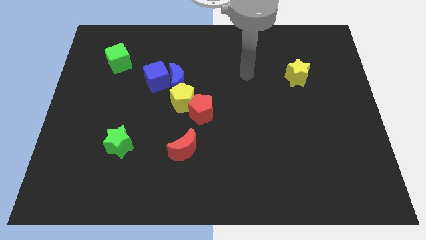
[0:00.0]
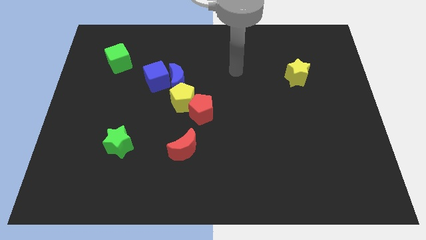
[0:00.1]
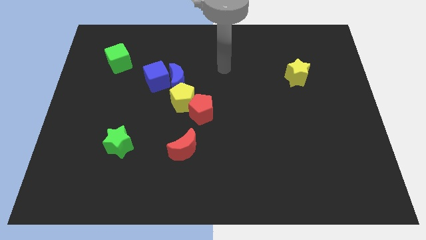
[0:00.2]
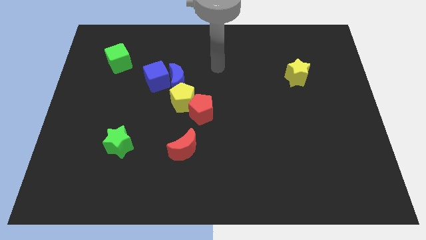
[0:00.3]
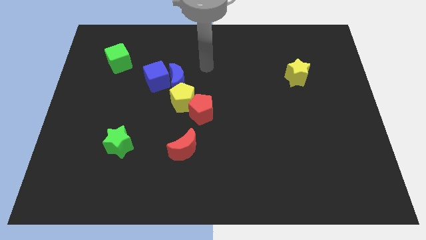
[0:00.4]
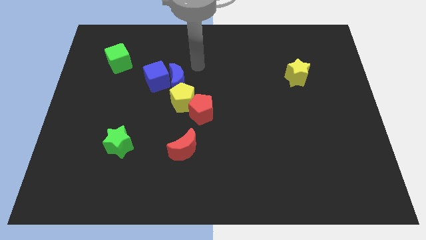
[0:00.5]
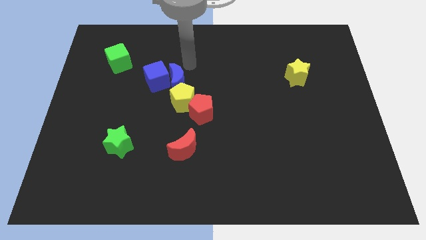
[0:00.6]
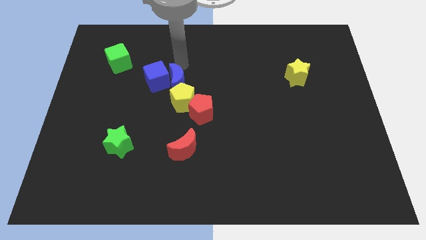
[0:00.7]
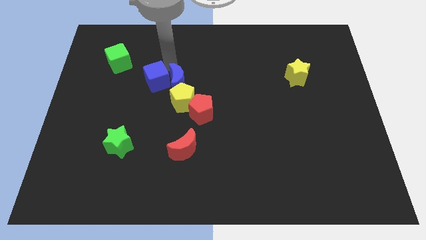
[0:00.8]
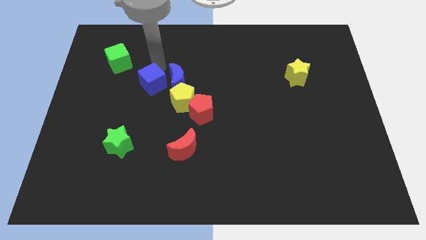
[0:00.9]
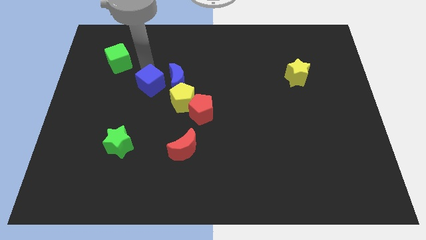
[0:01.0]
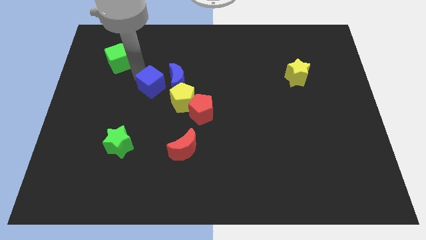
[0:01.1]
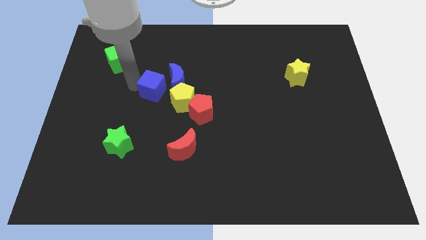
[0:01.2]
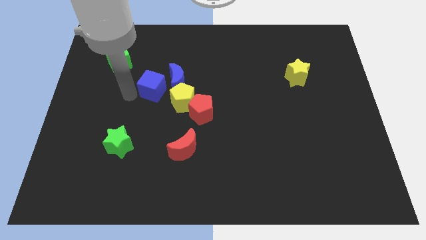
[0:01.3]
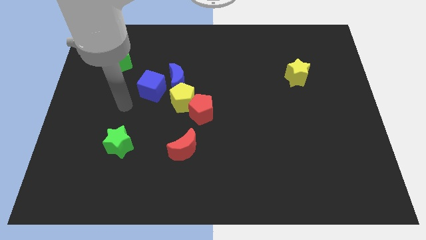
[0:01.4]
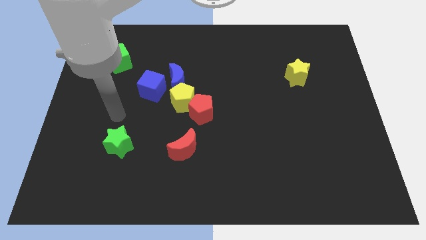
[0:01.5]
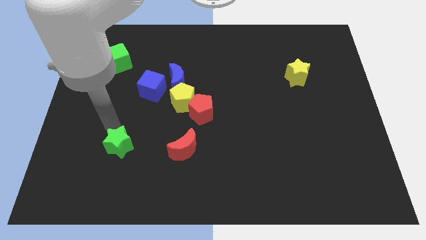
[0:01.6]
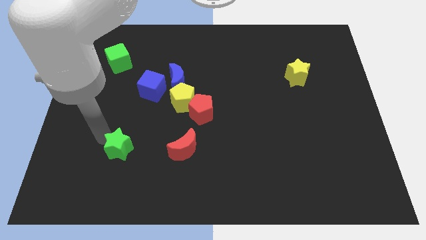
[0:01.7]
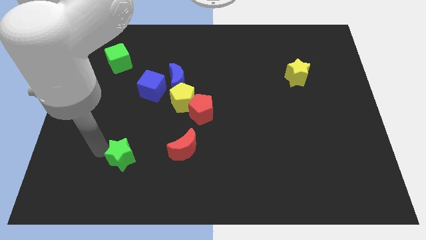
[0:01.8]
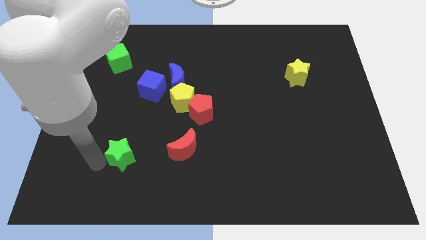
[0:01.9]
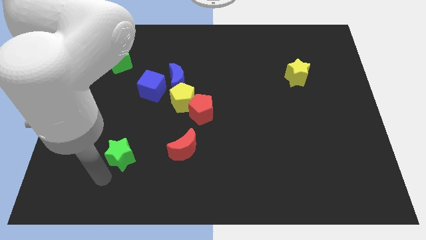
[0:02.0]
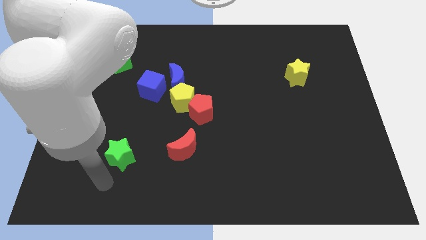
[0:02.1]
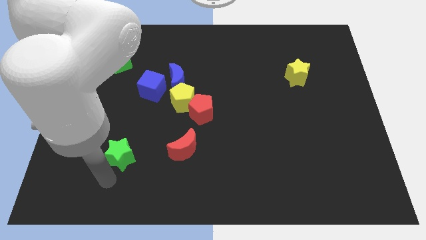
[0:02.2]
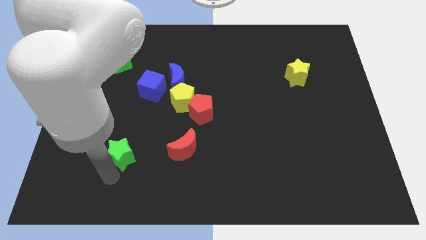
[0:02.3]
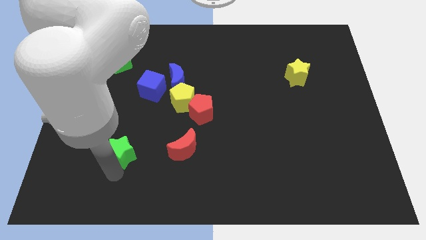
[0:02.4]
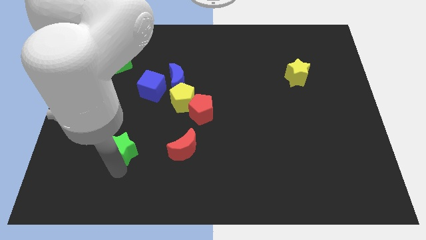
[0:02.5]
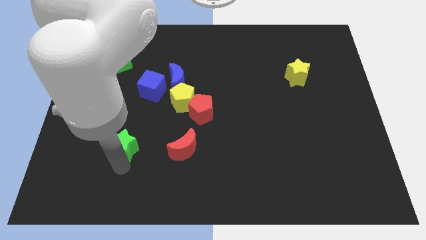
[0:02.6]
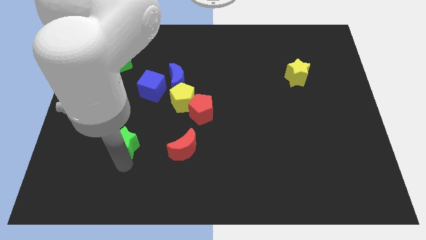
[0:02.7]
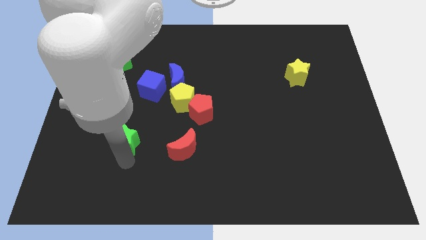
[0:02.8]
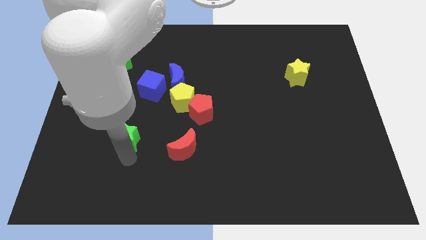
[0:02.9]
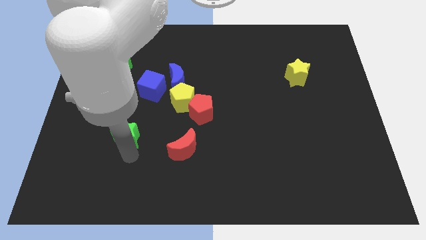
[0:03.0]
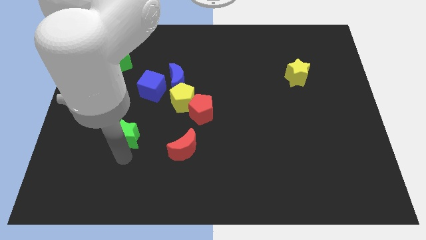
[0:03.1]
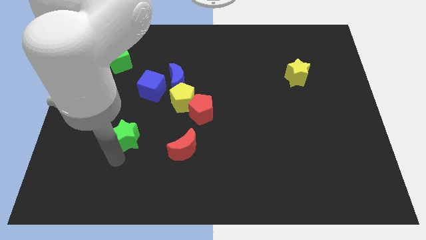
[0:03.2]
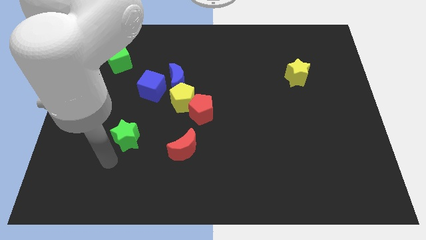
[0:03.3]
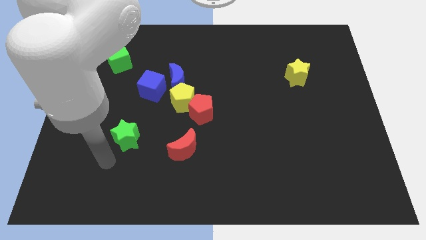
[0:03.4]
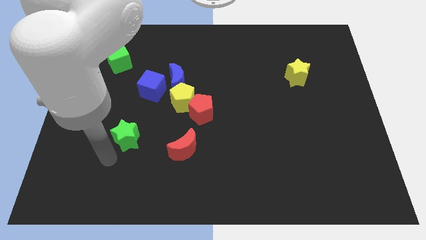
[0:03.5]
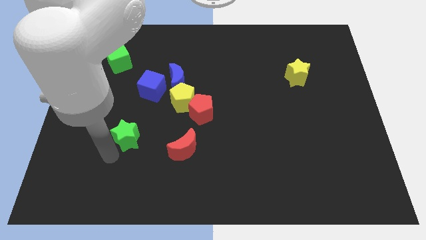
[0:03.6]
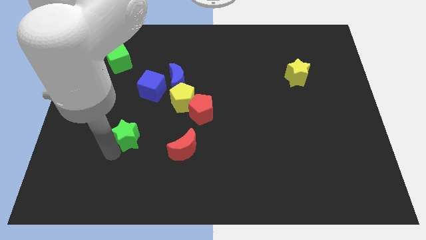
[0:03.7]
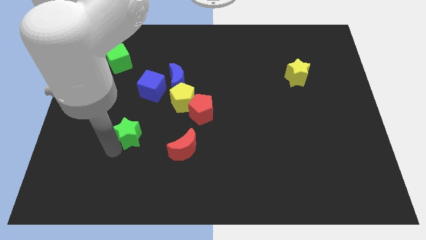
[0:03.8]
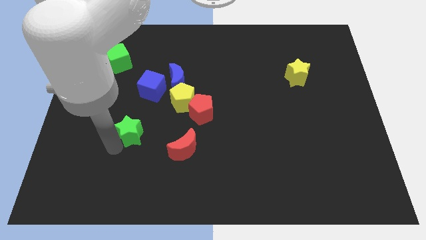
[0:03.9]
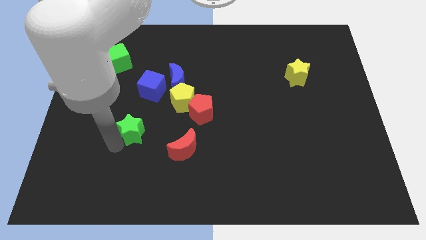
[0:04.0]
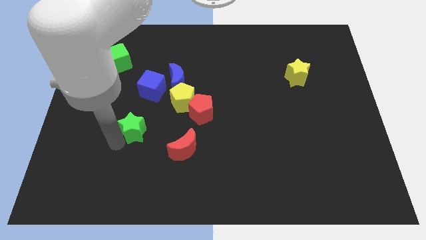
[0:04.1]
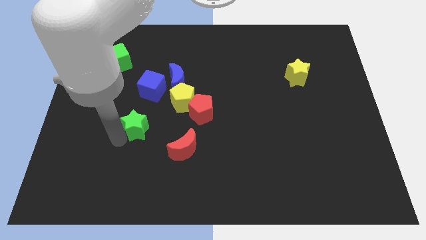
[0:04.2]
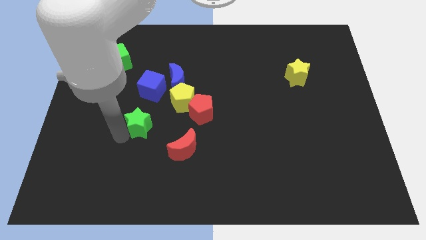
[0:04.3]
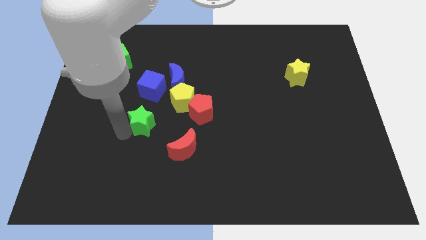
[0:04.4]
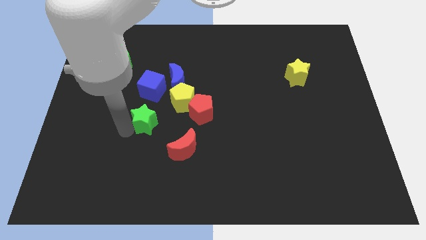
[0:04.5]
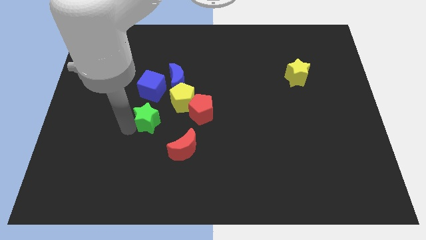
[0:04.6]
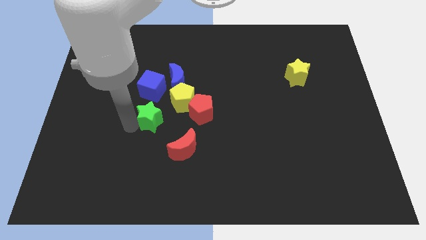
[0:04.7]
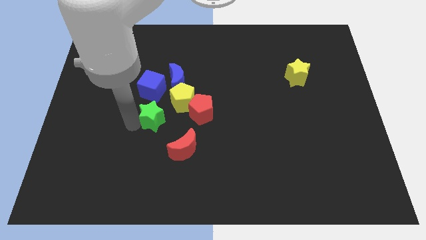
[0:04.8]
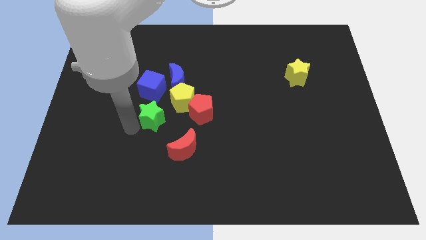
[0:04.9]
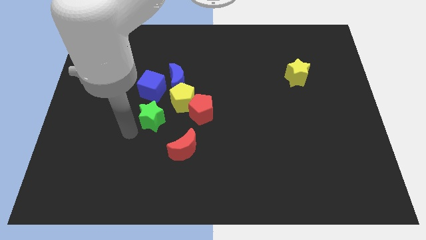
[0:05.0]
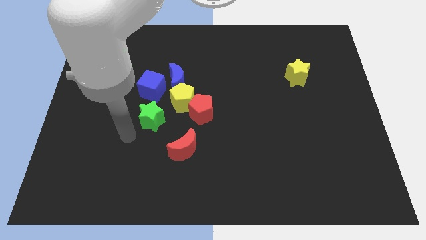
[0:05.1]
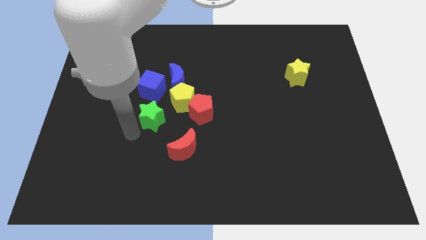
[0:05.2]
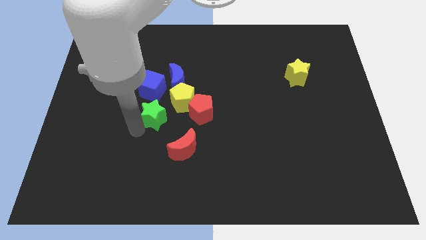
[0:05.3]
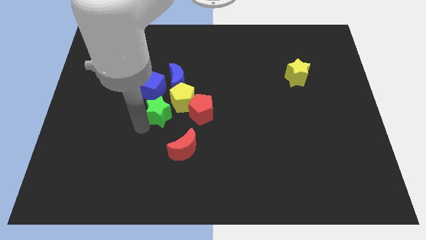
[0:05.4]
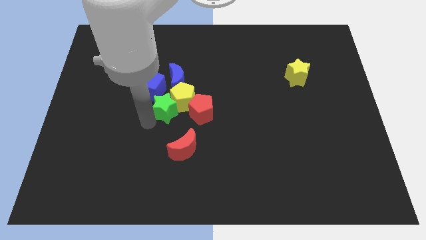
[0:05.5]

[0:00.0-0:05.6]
slide the green star close to the yellow pentagon

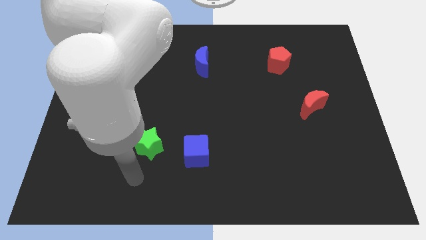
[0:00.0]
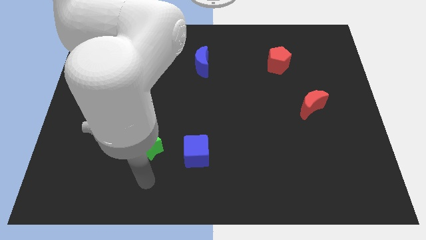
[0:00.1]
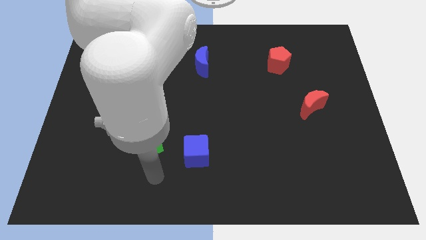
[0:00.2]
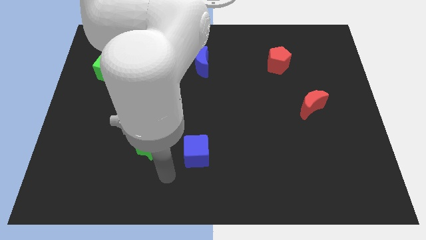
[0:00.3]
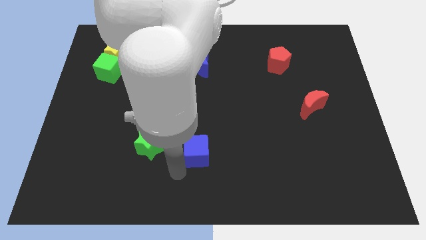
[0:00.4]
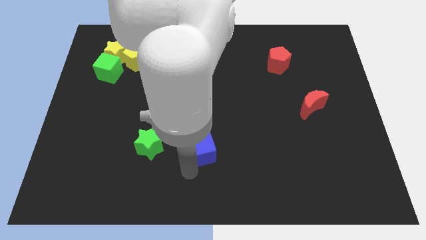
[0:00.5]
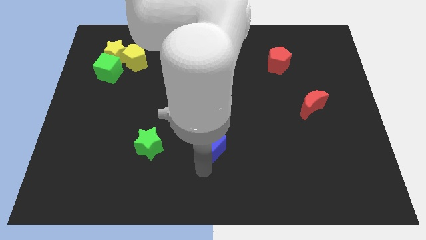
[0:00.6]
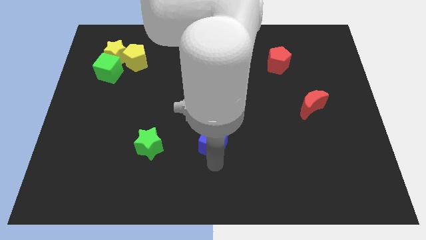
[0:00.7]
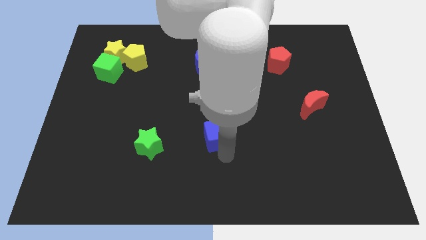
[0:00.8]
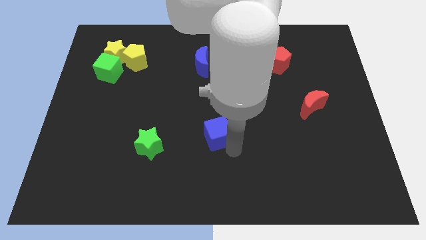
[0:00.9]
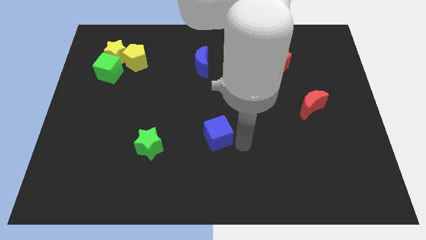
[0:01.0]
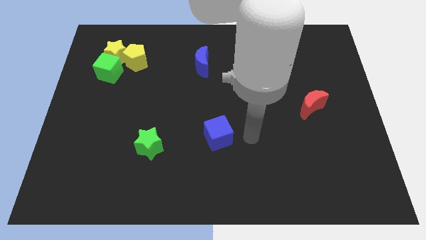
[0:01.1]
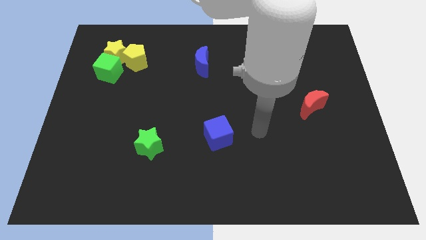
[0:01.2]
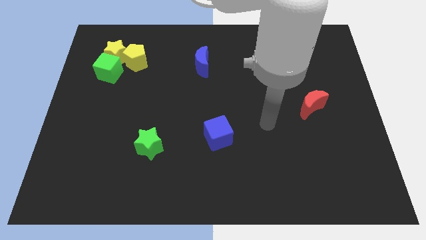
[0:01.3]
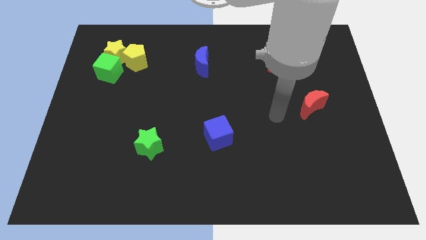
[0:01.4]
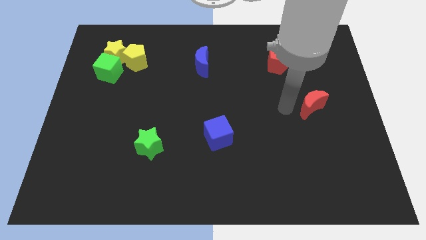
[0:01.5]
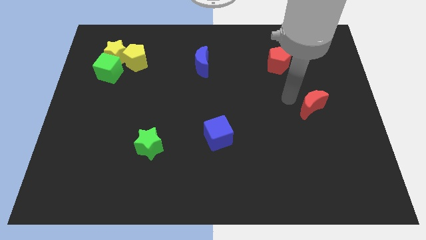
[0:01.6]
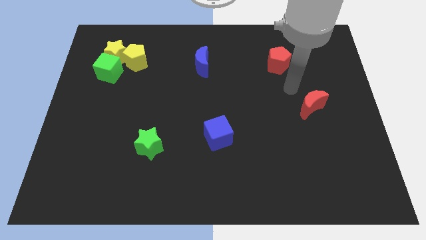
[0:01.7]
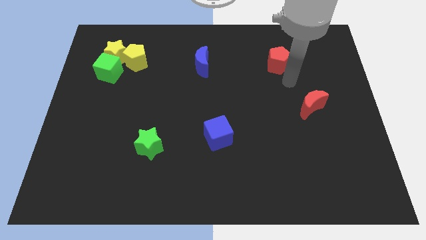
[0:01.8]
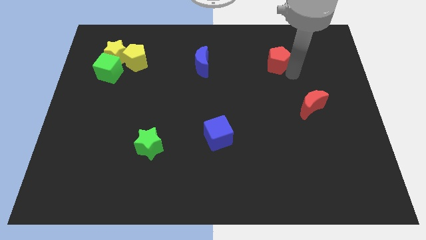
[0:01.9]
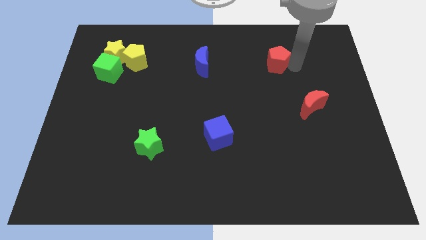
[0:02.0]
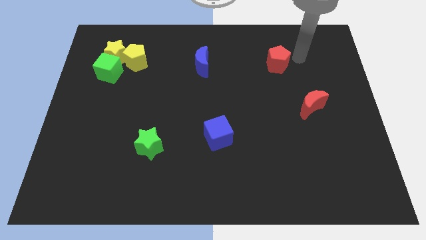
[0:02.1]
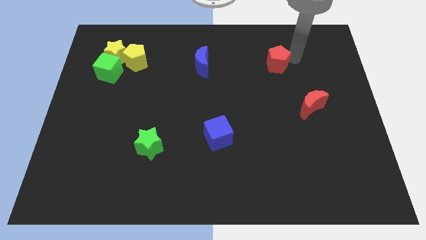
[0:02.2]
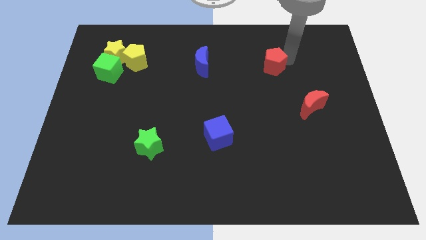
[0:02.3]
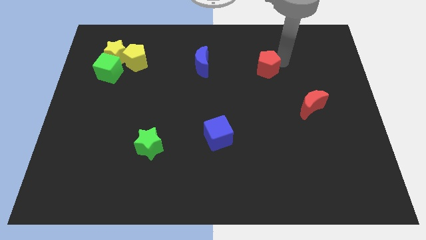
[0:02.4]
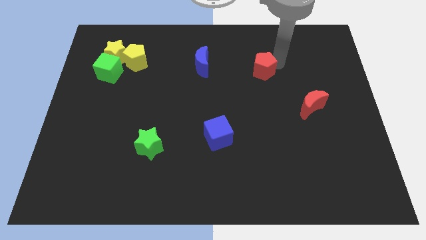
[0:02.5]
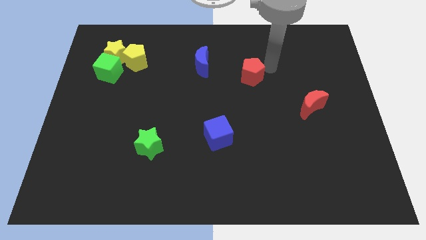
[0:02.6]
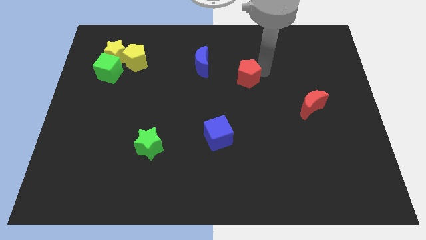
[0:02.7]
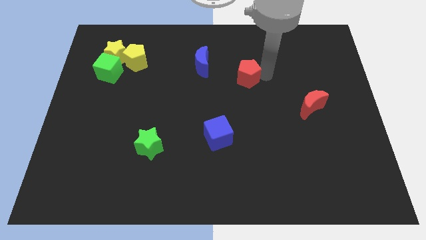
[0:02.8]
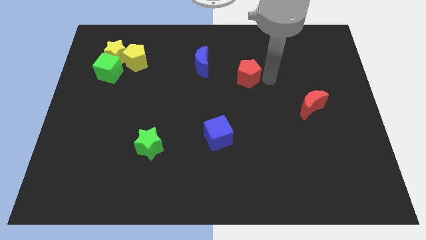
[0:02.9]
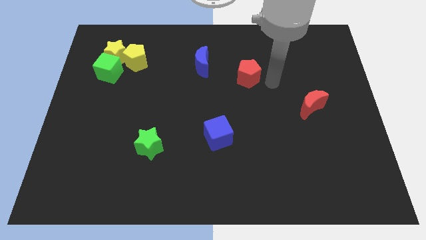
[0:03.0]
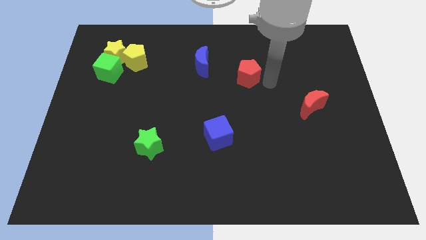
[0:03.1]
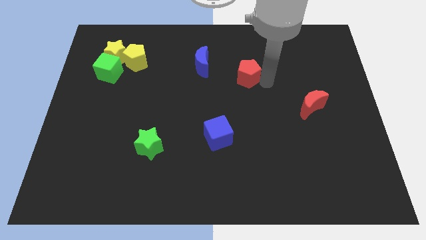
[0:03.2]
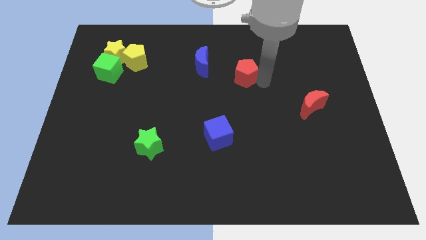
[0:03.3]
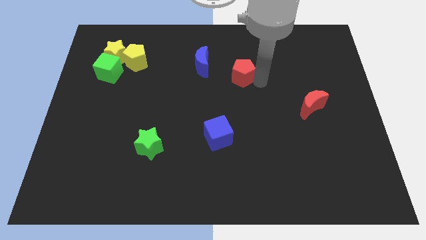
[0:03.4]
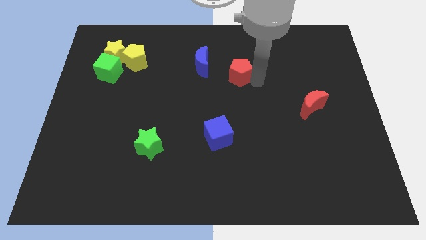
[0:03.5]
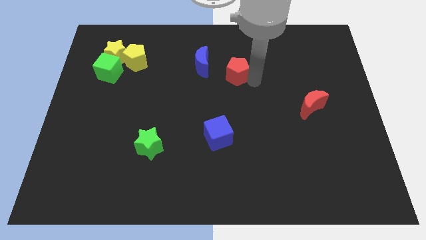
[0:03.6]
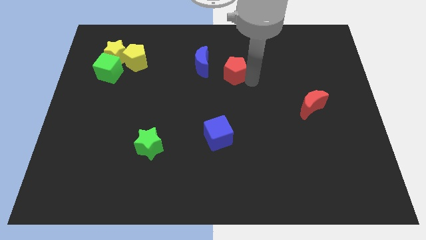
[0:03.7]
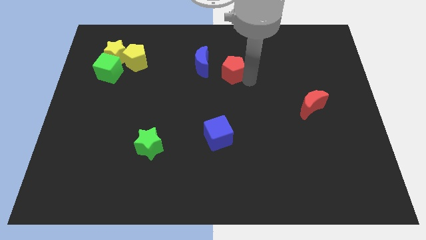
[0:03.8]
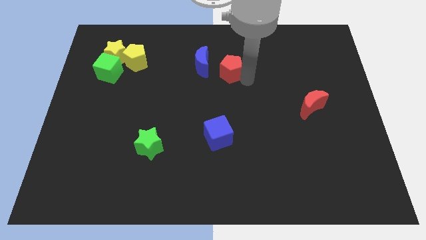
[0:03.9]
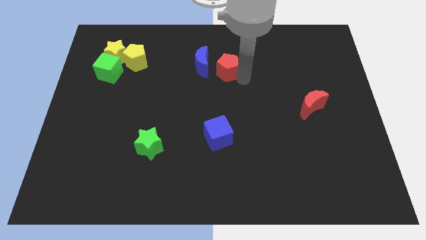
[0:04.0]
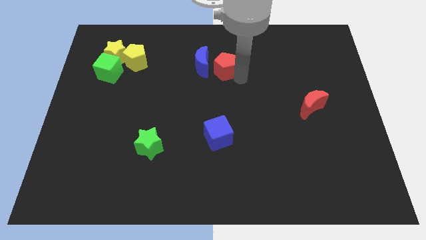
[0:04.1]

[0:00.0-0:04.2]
slide the red pentagon towards the blue moon
